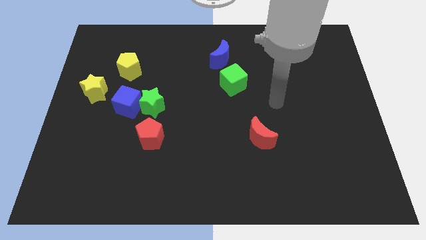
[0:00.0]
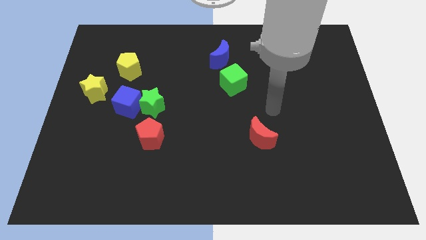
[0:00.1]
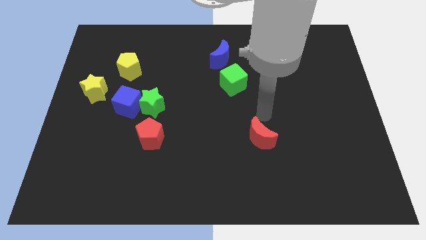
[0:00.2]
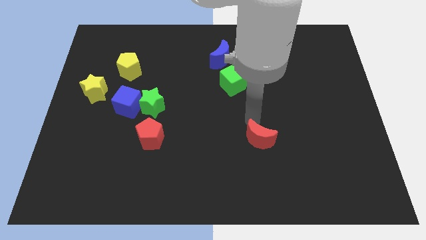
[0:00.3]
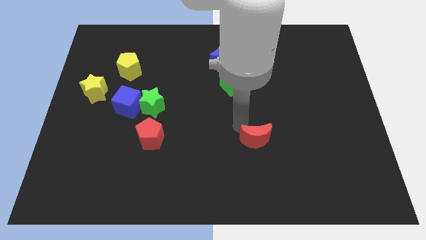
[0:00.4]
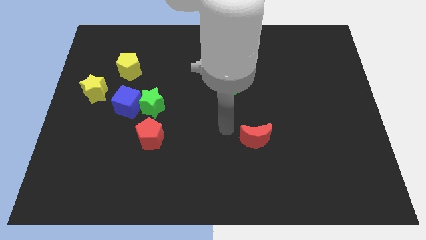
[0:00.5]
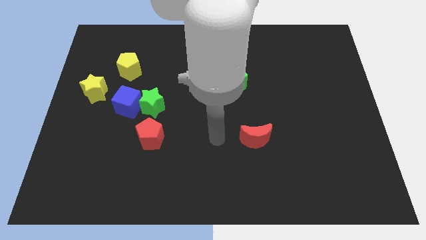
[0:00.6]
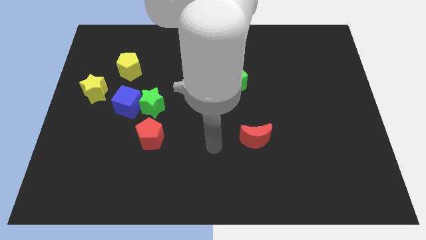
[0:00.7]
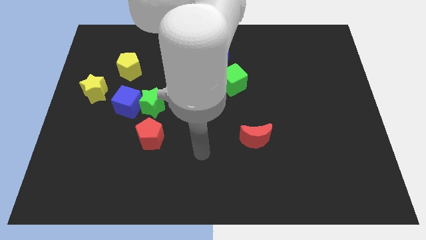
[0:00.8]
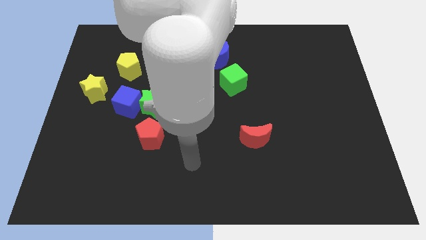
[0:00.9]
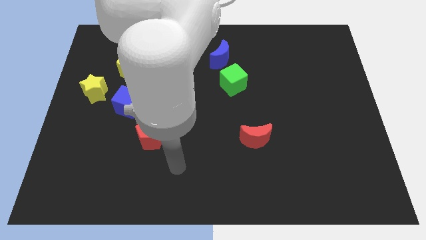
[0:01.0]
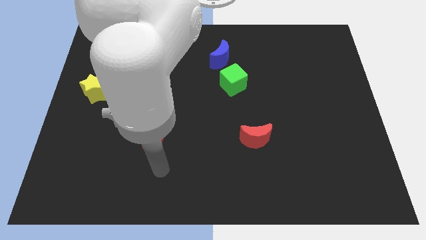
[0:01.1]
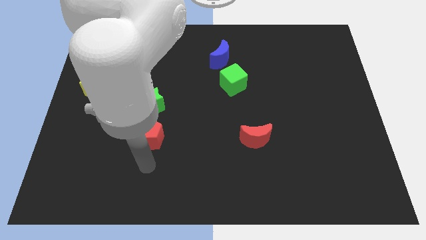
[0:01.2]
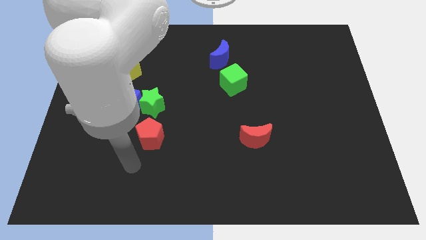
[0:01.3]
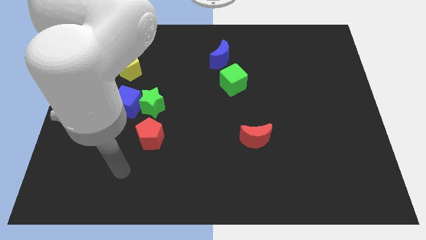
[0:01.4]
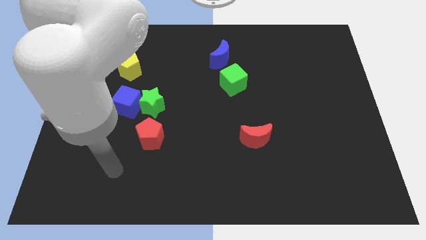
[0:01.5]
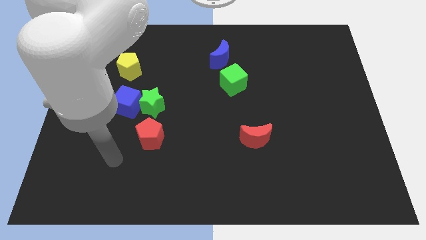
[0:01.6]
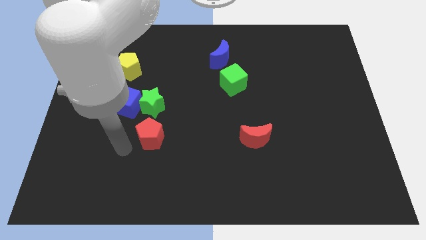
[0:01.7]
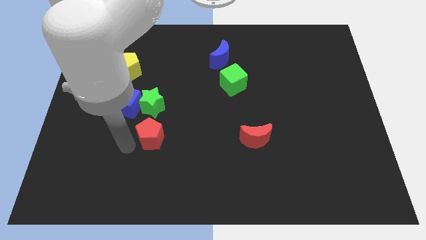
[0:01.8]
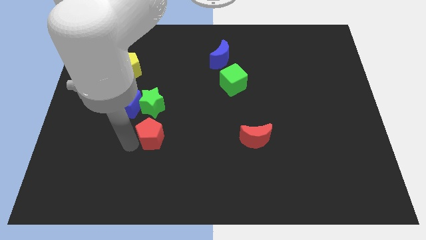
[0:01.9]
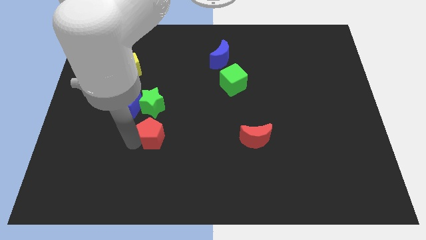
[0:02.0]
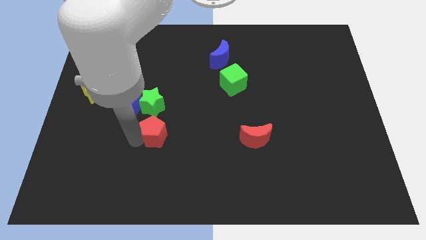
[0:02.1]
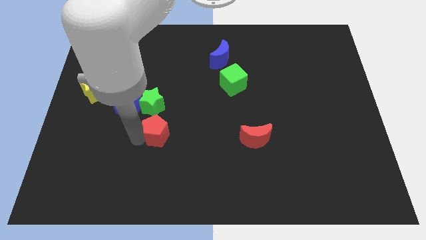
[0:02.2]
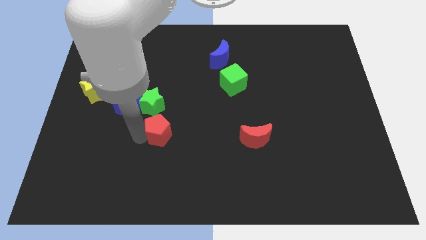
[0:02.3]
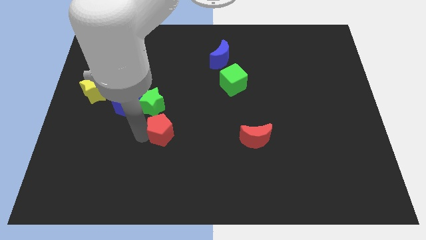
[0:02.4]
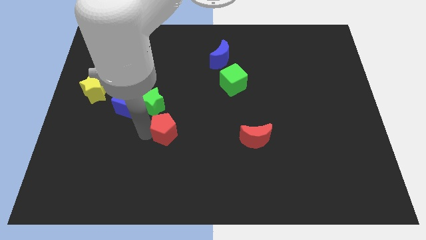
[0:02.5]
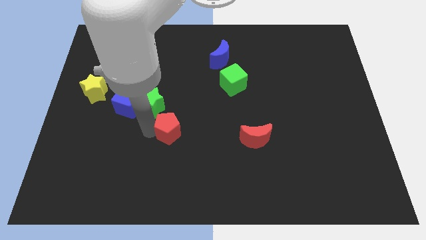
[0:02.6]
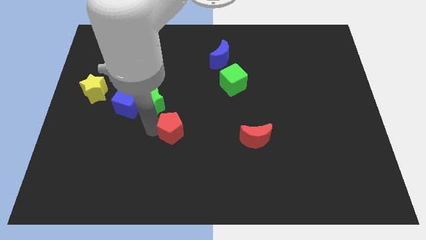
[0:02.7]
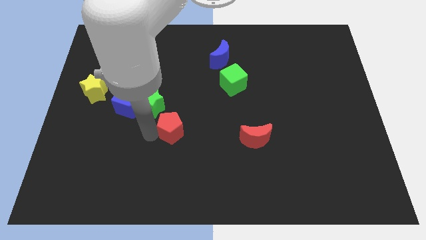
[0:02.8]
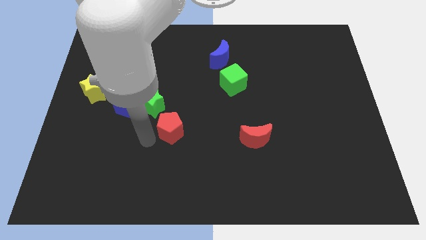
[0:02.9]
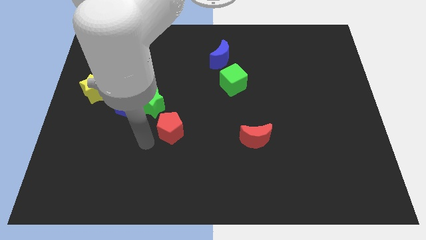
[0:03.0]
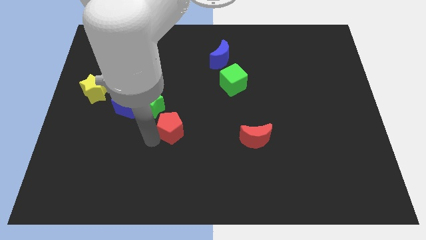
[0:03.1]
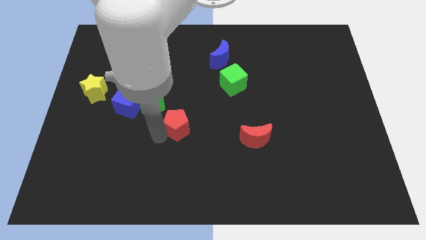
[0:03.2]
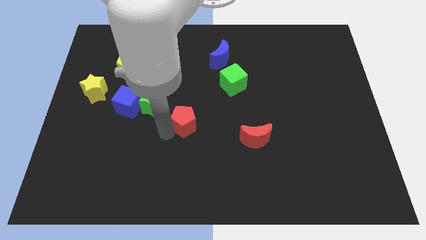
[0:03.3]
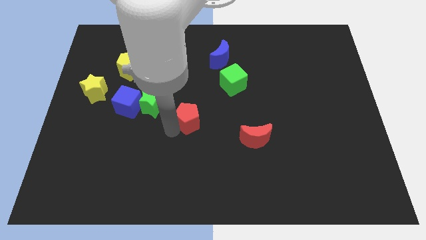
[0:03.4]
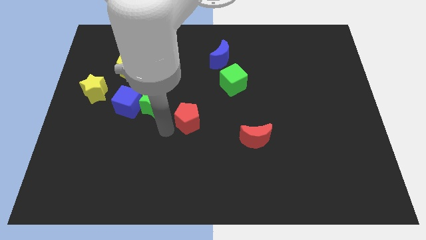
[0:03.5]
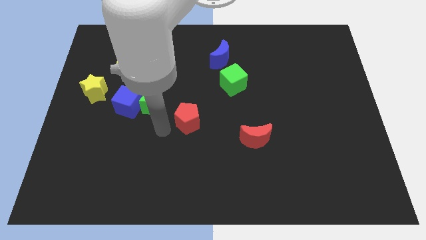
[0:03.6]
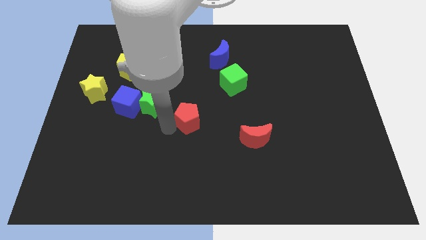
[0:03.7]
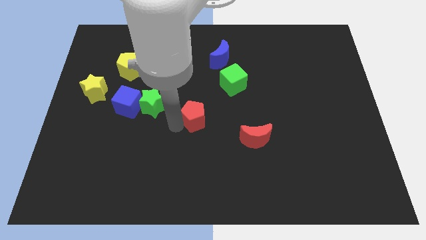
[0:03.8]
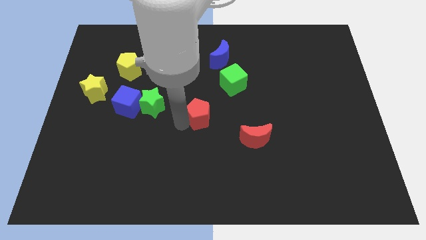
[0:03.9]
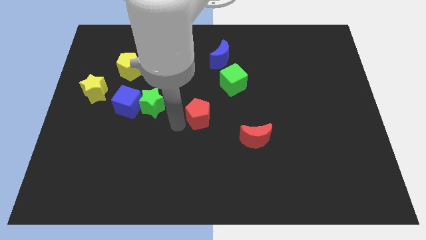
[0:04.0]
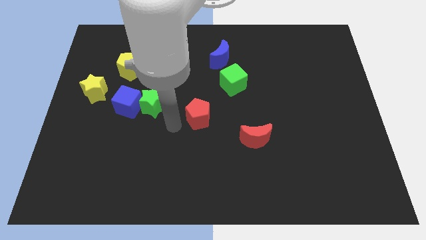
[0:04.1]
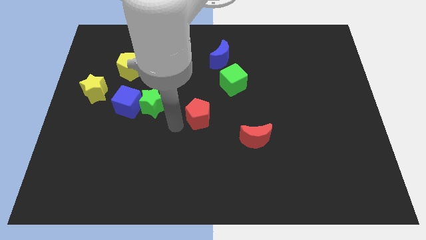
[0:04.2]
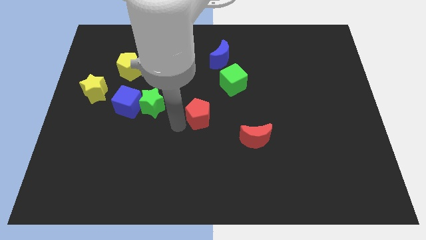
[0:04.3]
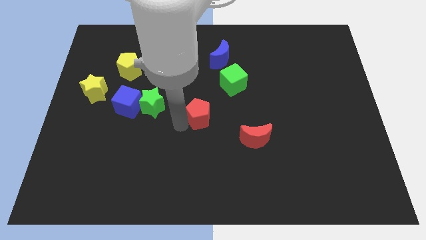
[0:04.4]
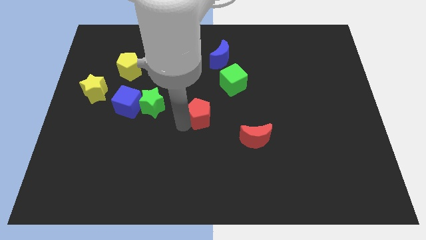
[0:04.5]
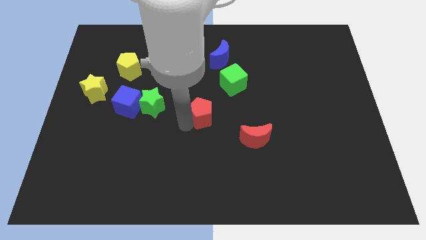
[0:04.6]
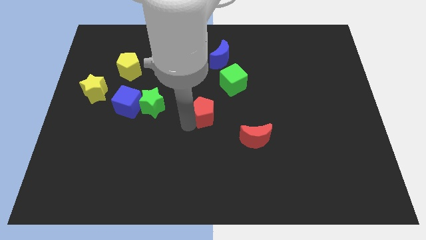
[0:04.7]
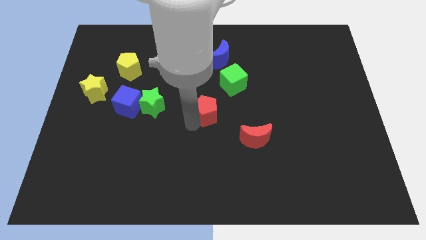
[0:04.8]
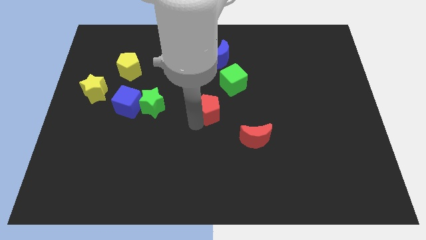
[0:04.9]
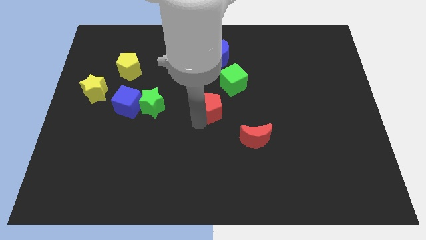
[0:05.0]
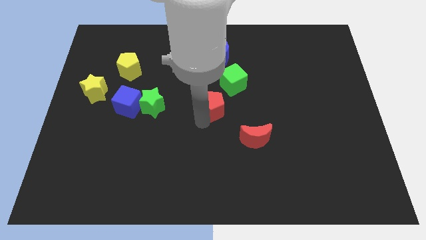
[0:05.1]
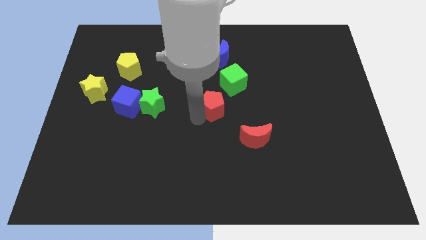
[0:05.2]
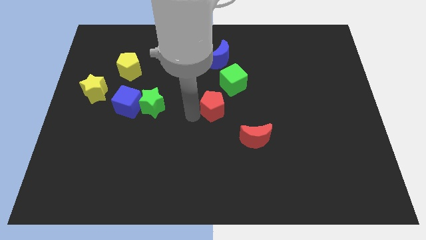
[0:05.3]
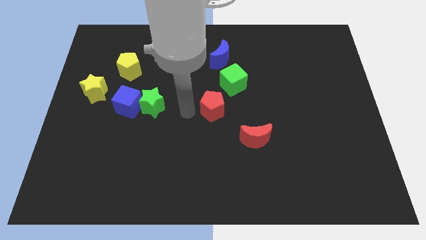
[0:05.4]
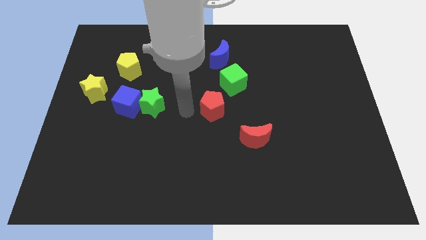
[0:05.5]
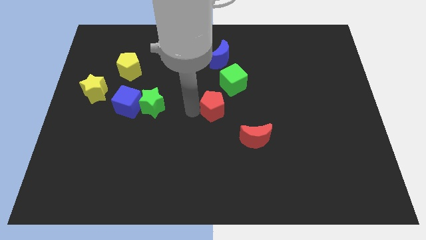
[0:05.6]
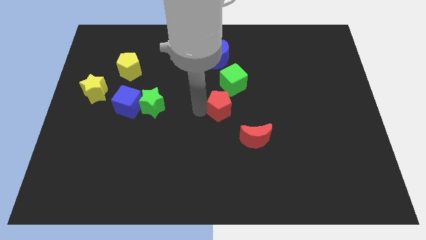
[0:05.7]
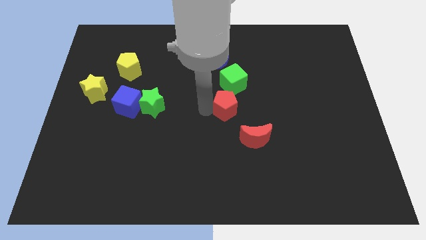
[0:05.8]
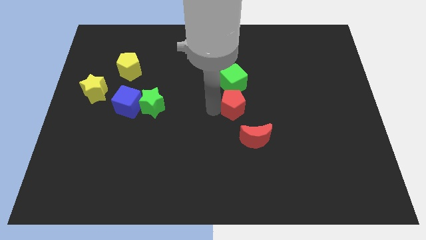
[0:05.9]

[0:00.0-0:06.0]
slide the red pentagon to the top of the red moon
